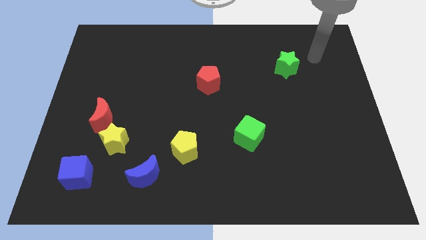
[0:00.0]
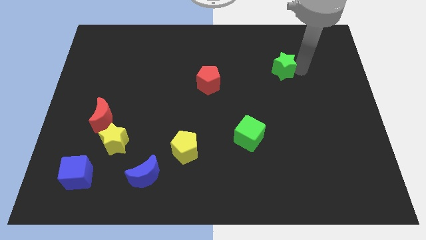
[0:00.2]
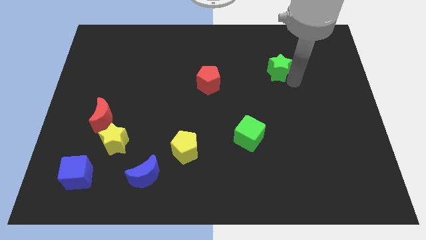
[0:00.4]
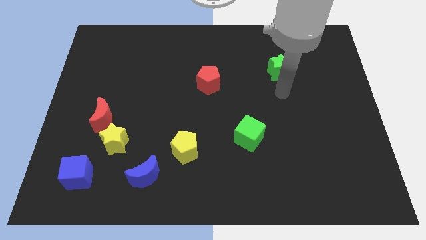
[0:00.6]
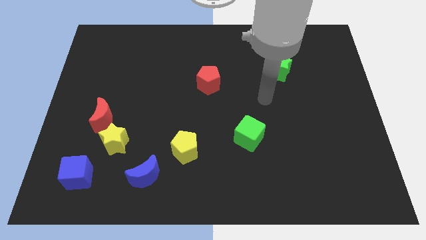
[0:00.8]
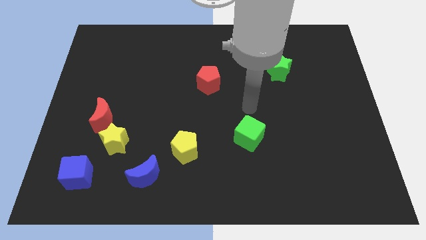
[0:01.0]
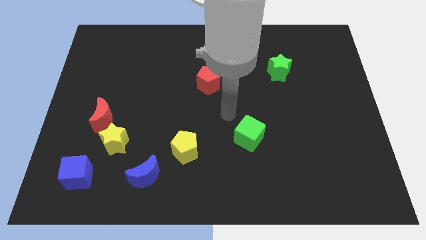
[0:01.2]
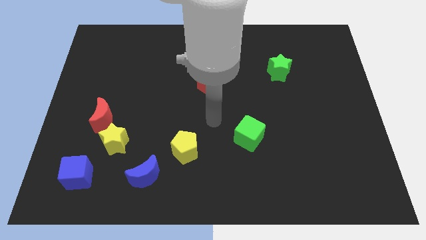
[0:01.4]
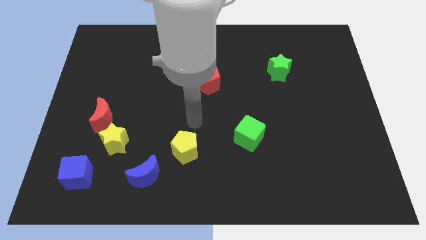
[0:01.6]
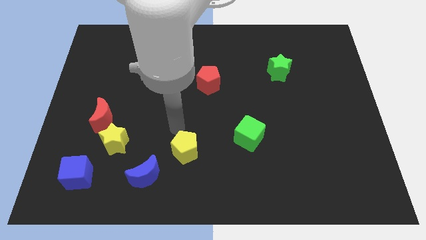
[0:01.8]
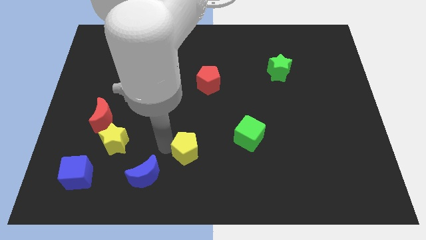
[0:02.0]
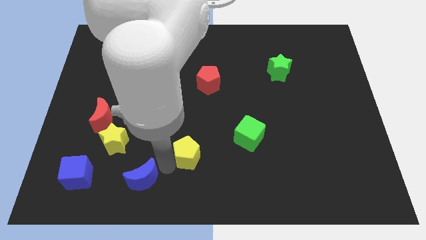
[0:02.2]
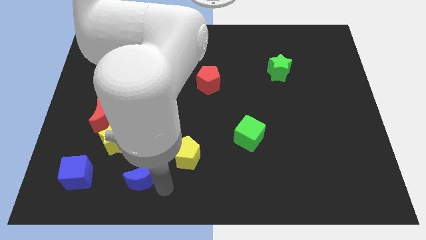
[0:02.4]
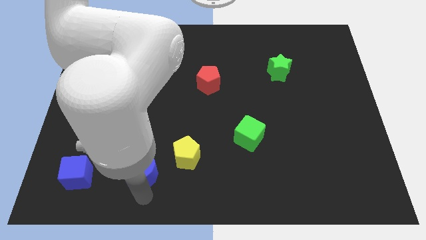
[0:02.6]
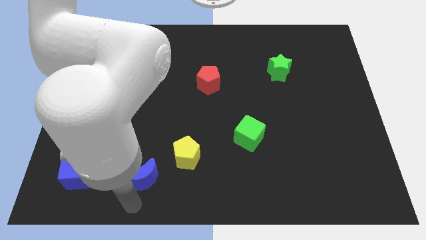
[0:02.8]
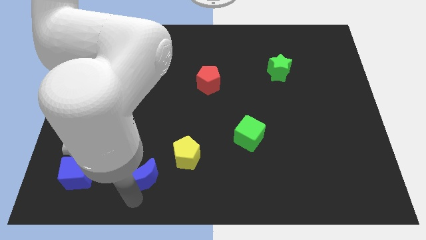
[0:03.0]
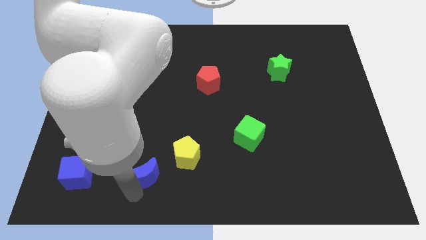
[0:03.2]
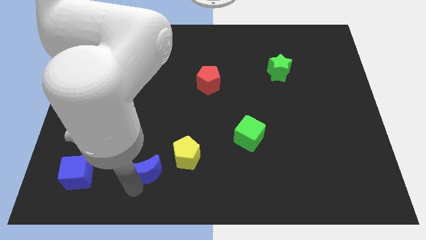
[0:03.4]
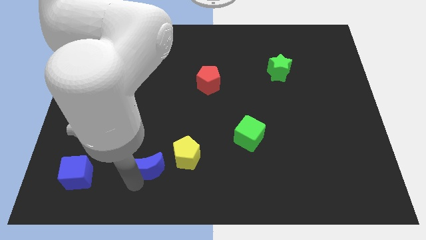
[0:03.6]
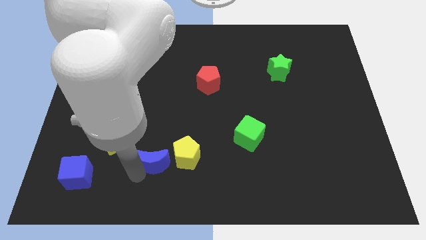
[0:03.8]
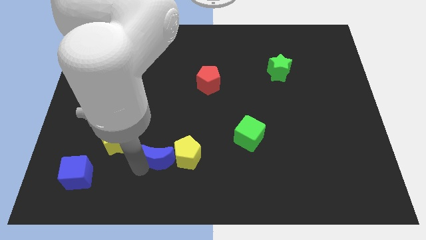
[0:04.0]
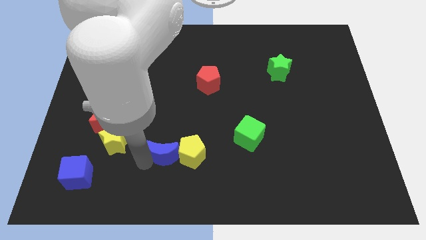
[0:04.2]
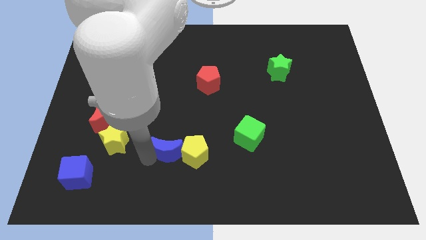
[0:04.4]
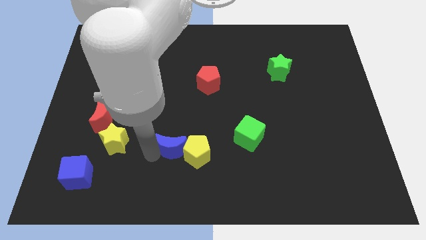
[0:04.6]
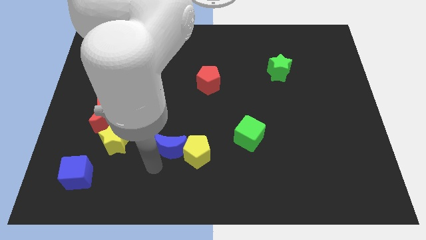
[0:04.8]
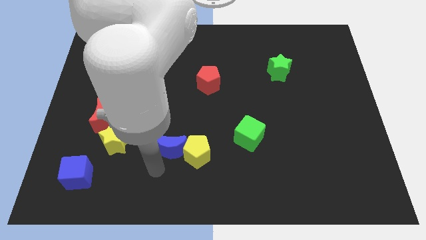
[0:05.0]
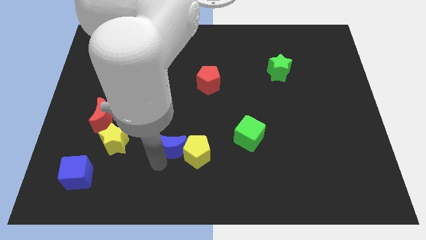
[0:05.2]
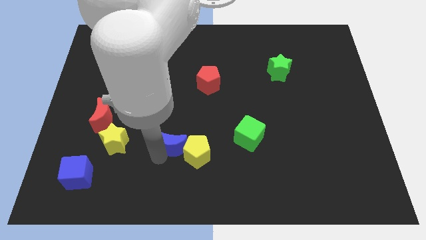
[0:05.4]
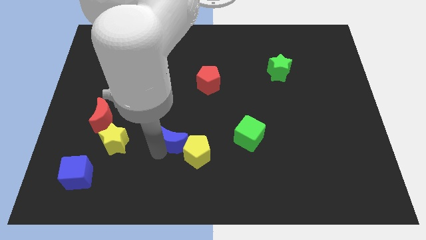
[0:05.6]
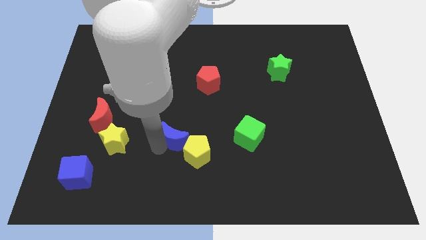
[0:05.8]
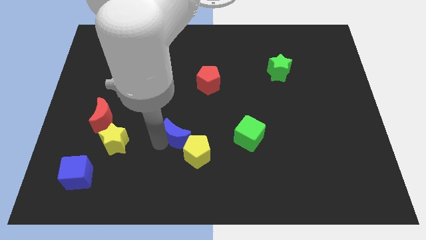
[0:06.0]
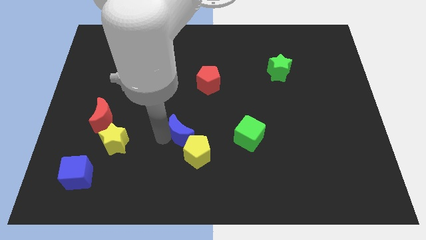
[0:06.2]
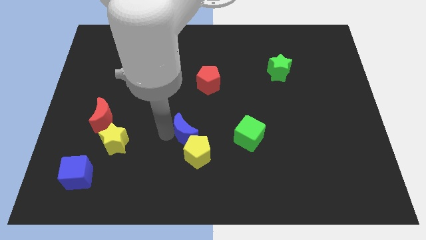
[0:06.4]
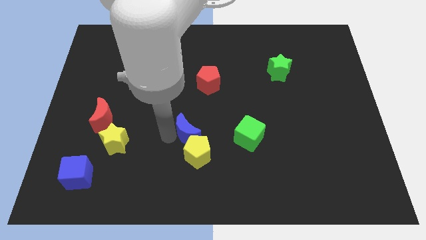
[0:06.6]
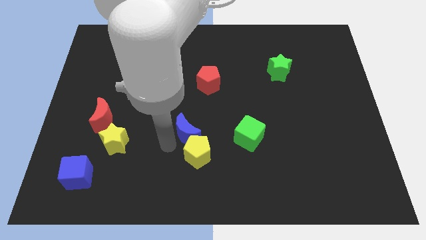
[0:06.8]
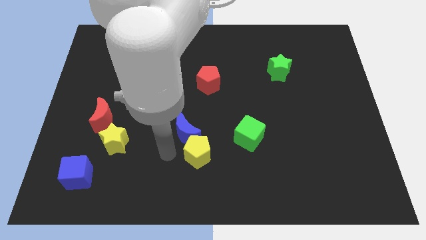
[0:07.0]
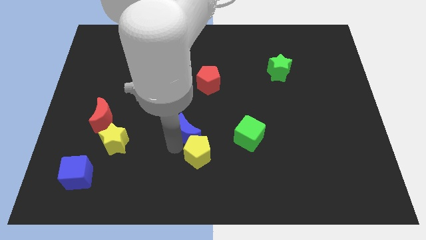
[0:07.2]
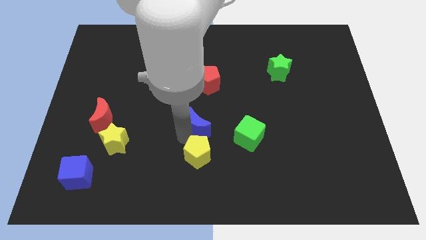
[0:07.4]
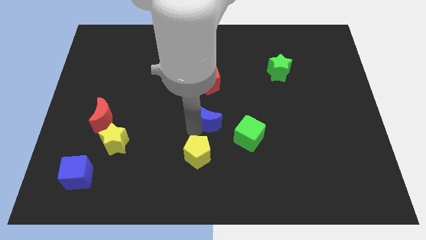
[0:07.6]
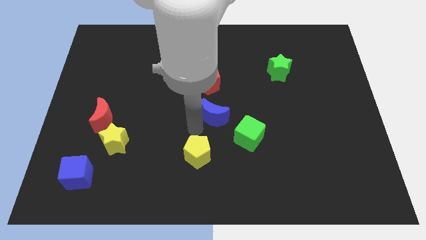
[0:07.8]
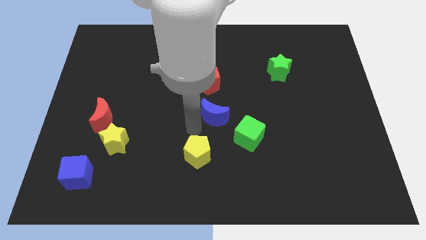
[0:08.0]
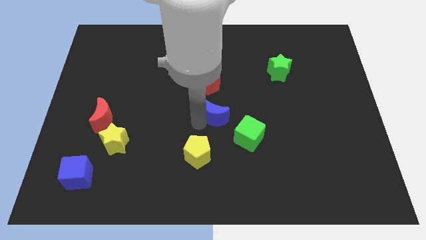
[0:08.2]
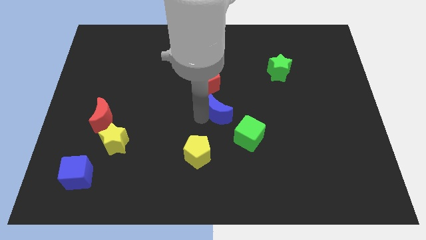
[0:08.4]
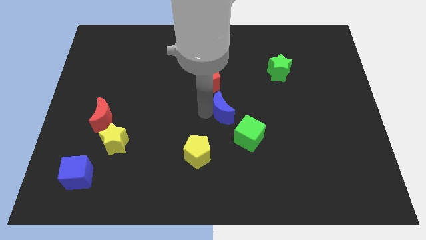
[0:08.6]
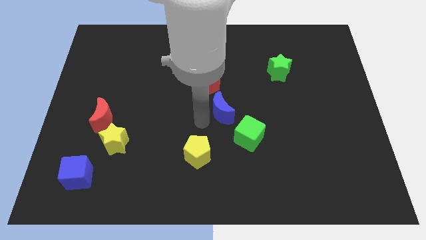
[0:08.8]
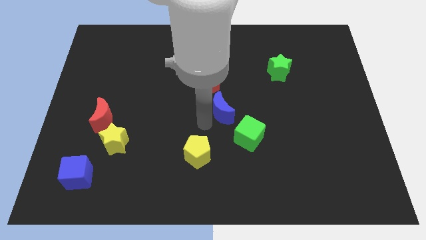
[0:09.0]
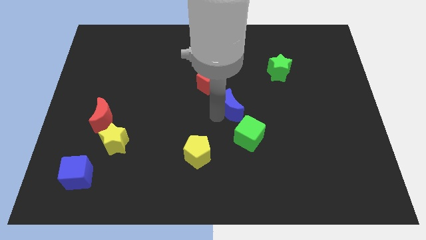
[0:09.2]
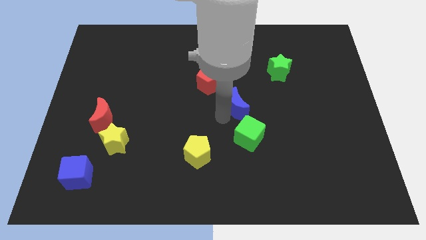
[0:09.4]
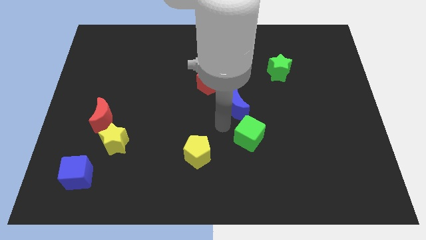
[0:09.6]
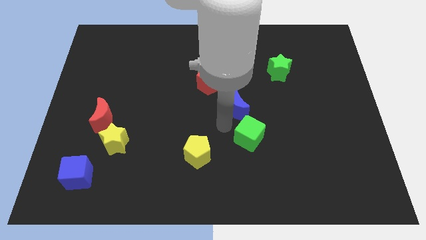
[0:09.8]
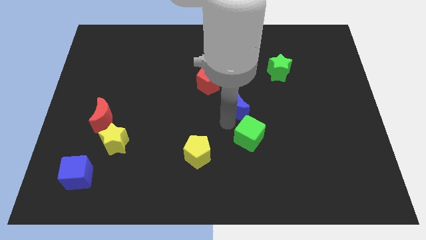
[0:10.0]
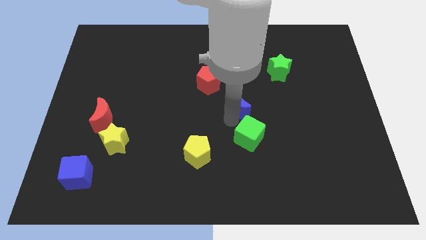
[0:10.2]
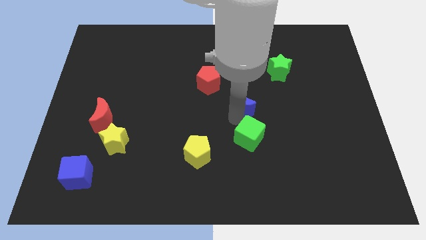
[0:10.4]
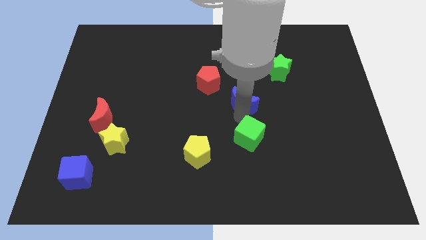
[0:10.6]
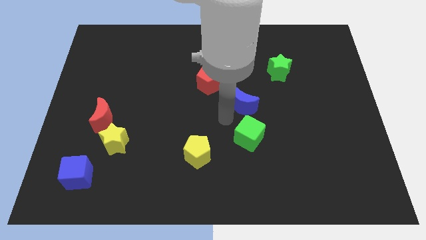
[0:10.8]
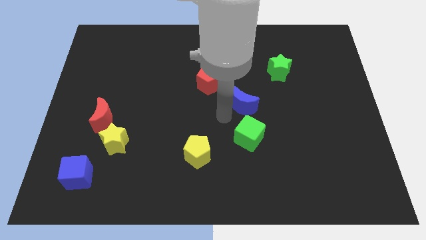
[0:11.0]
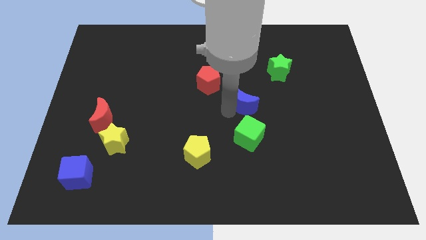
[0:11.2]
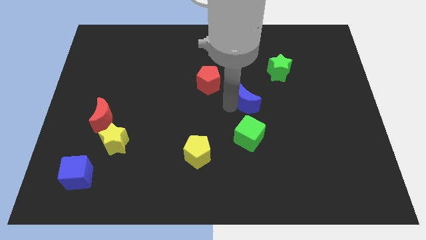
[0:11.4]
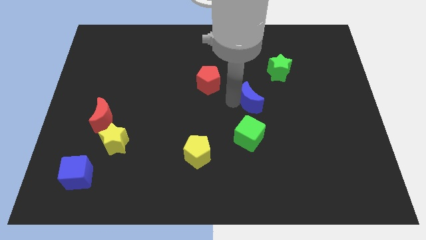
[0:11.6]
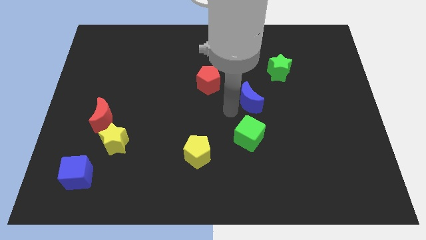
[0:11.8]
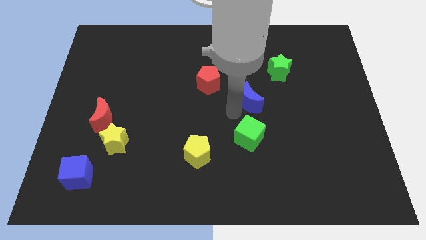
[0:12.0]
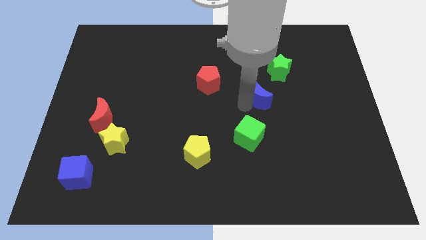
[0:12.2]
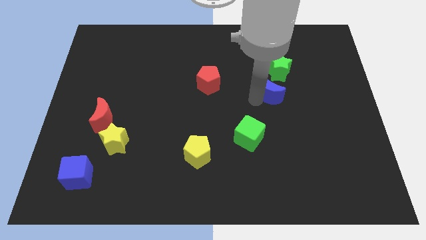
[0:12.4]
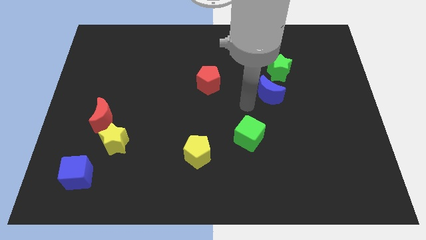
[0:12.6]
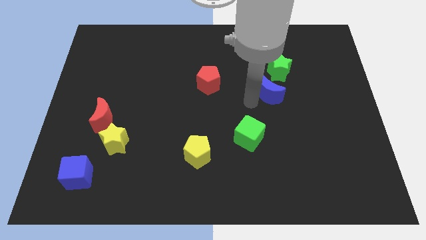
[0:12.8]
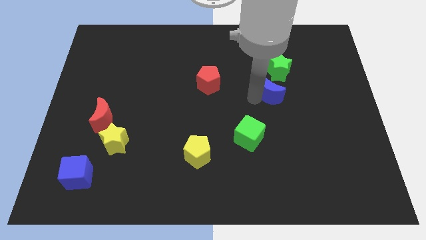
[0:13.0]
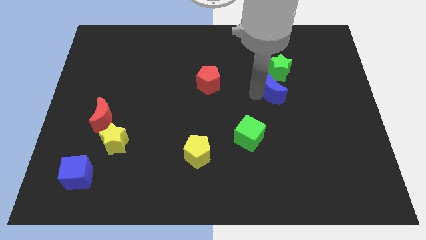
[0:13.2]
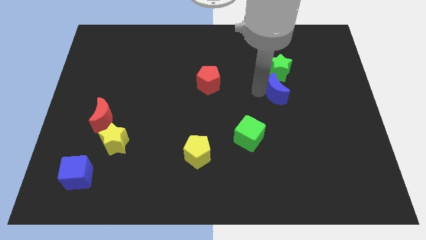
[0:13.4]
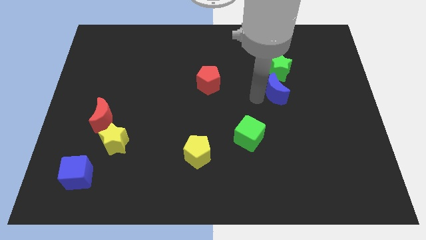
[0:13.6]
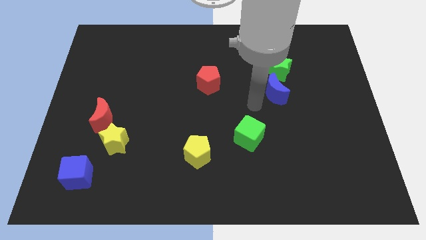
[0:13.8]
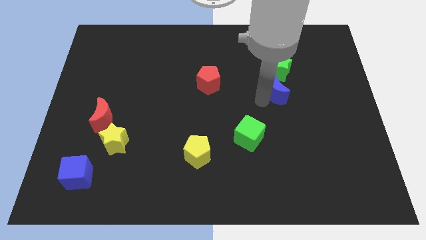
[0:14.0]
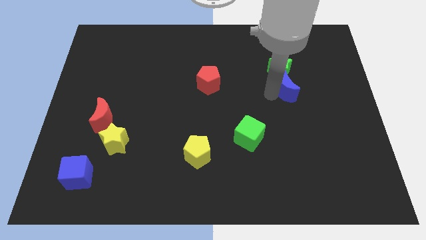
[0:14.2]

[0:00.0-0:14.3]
move the blue moon diagonally down and to the right of the green star

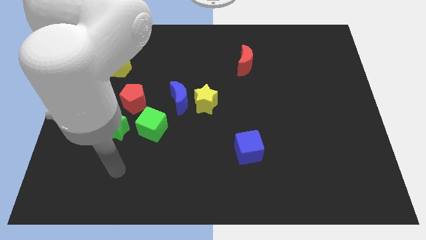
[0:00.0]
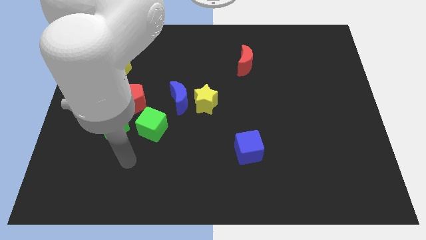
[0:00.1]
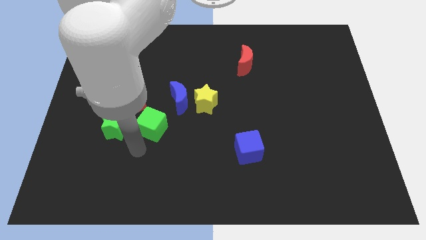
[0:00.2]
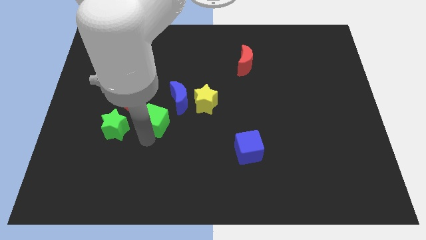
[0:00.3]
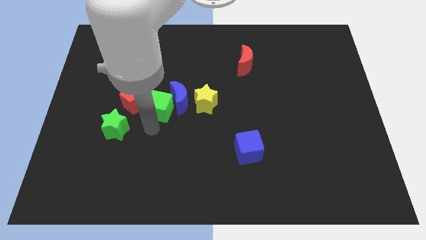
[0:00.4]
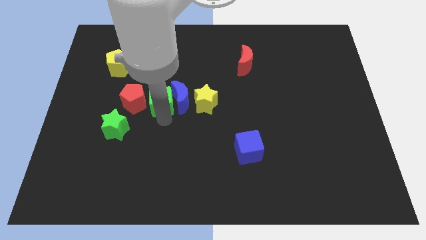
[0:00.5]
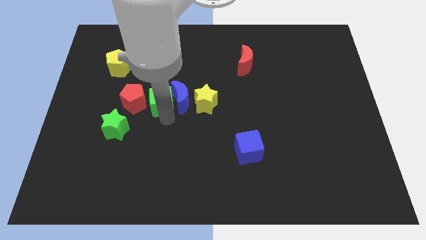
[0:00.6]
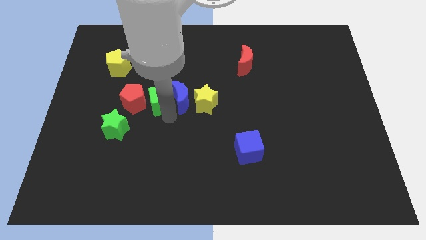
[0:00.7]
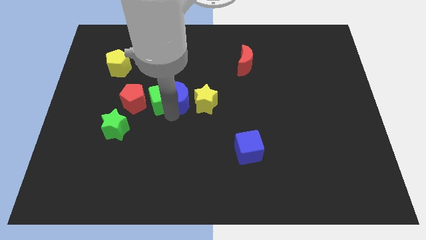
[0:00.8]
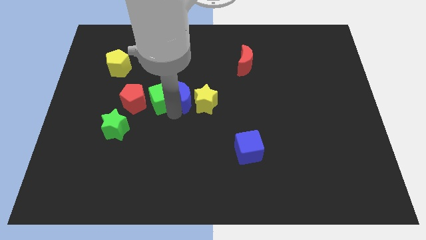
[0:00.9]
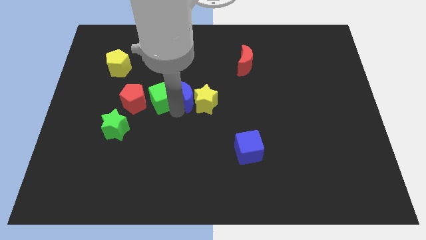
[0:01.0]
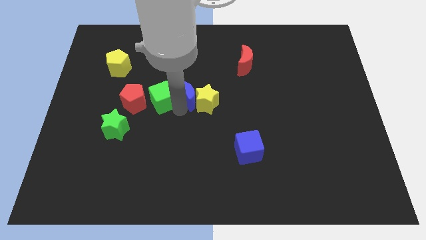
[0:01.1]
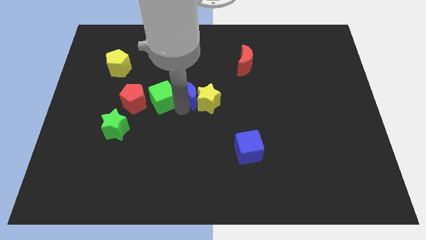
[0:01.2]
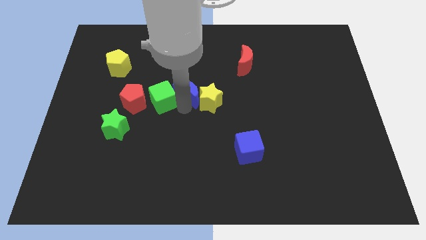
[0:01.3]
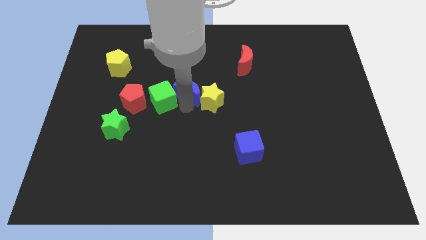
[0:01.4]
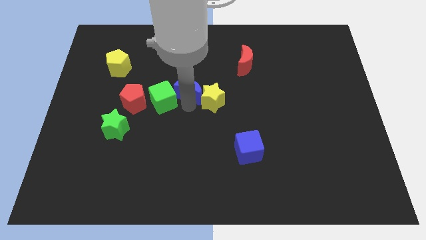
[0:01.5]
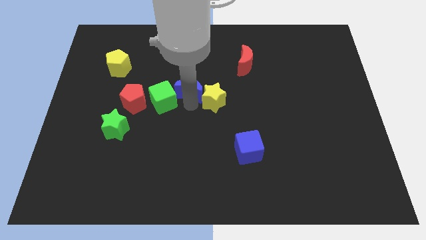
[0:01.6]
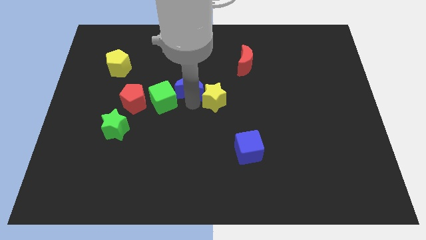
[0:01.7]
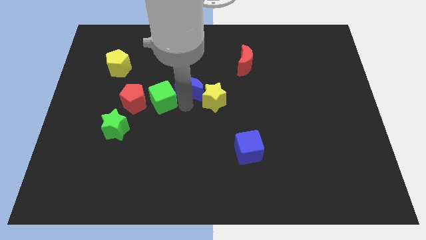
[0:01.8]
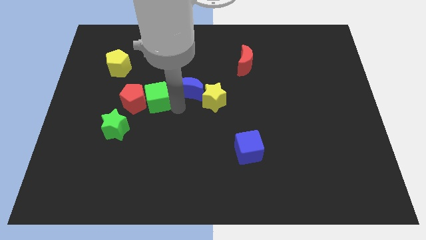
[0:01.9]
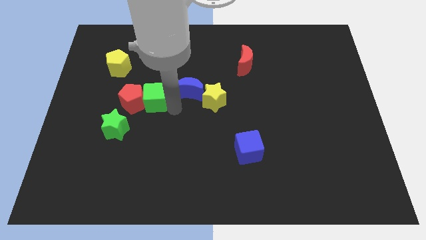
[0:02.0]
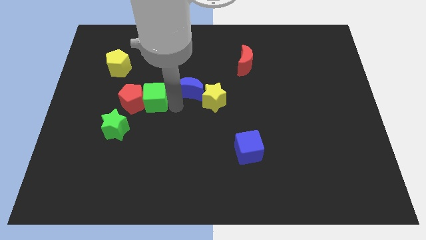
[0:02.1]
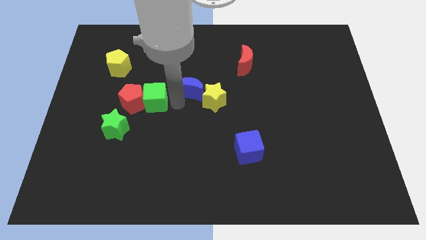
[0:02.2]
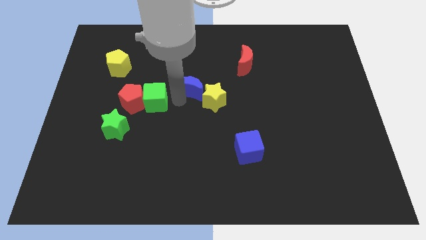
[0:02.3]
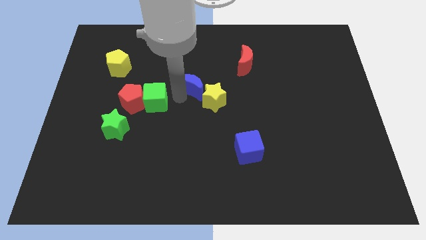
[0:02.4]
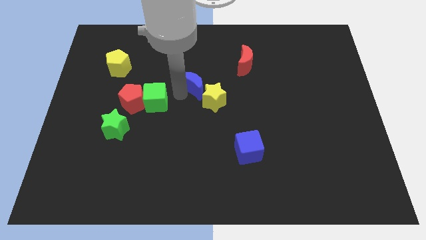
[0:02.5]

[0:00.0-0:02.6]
put the blue moon to the top of the yellow star
